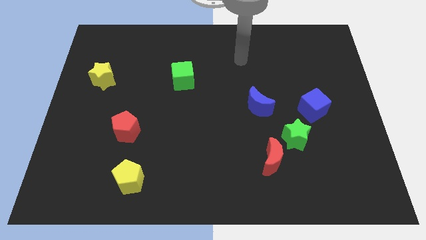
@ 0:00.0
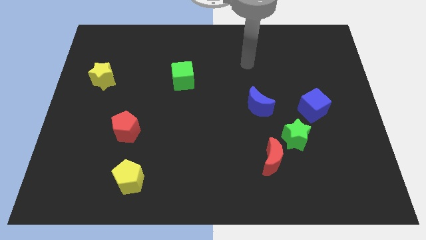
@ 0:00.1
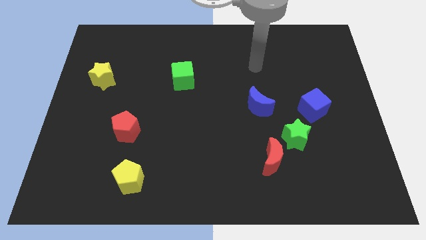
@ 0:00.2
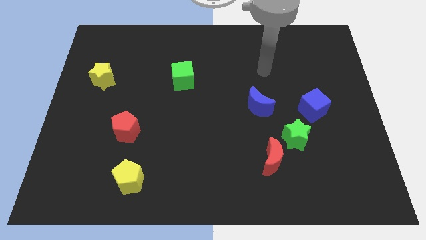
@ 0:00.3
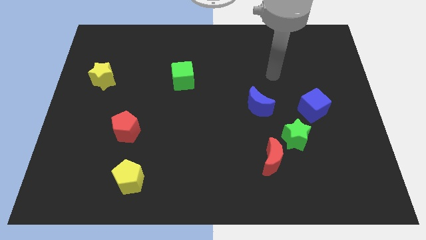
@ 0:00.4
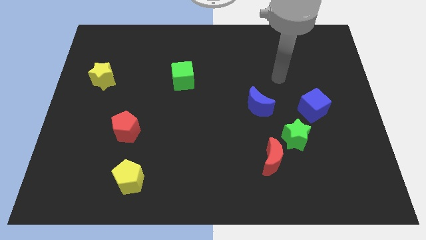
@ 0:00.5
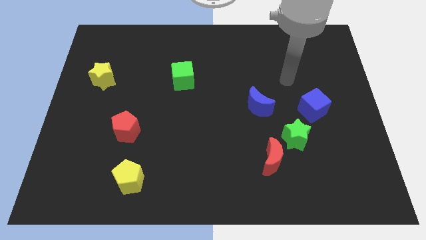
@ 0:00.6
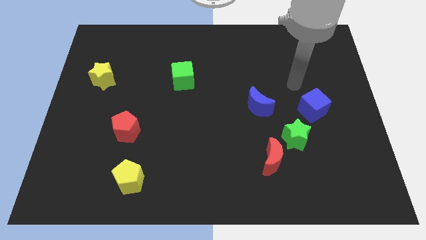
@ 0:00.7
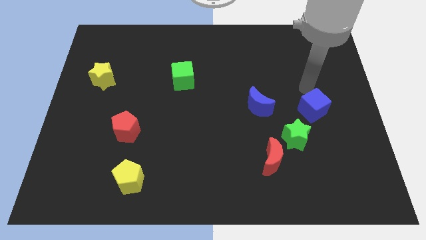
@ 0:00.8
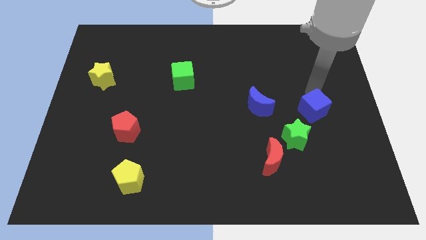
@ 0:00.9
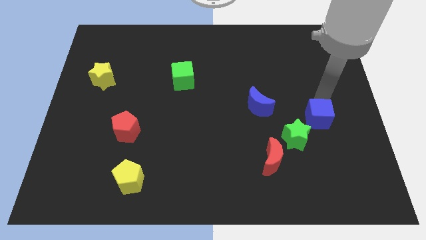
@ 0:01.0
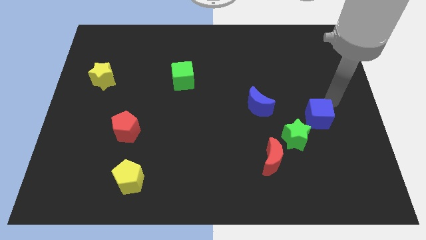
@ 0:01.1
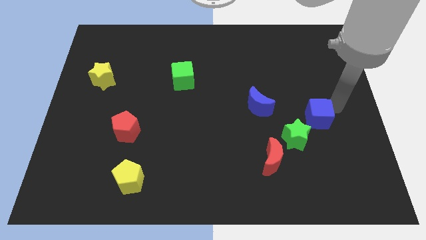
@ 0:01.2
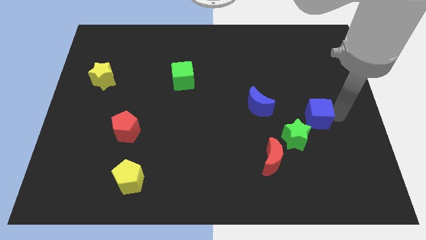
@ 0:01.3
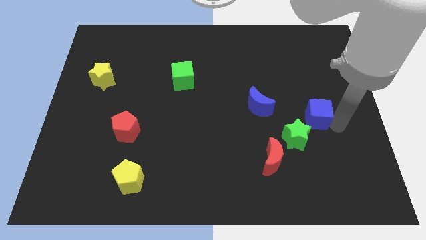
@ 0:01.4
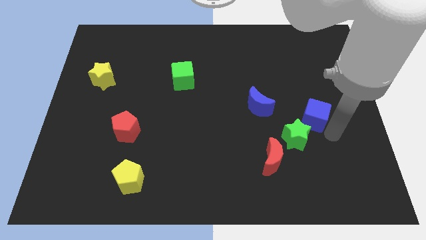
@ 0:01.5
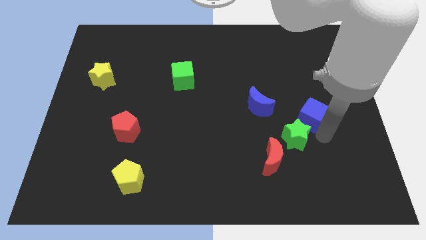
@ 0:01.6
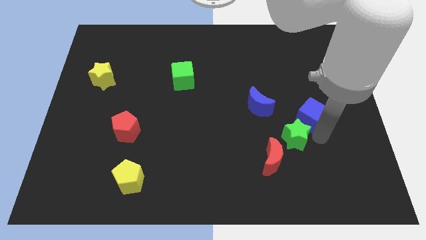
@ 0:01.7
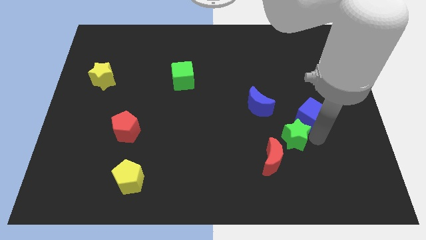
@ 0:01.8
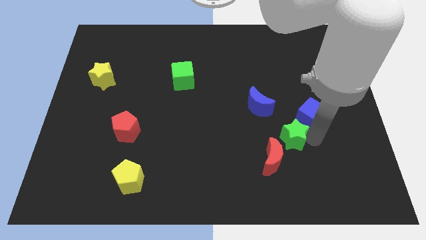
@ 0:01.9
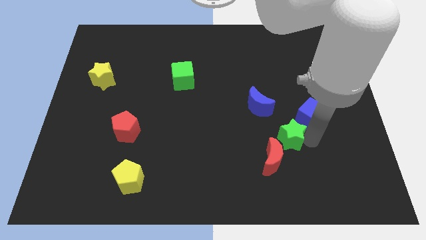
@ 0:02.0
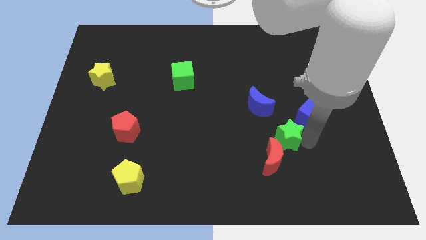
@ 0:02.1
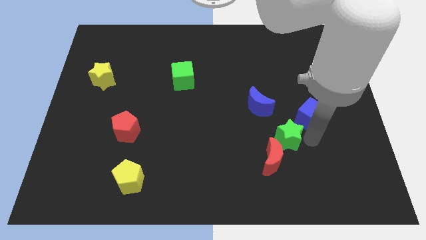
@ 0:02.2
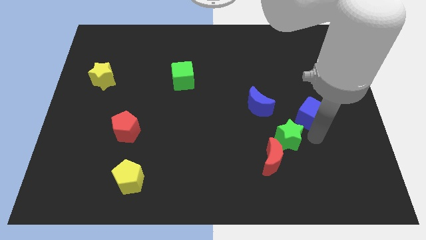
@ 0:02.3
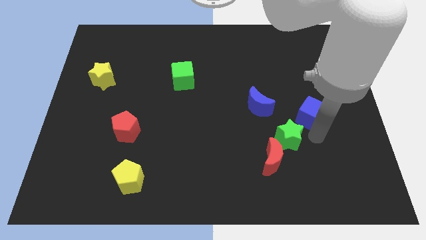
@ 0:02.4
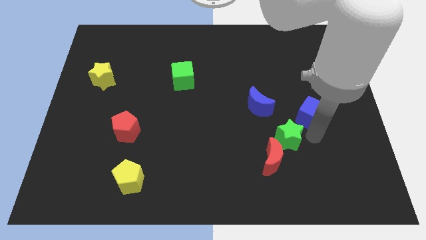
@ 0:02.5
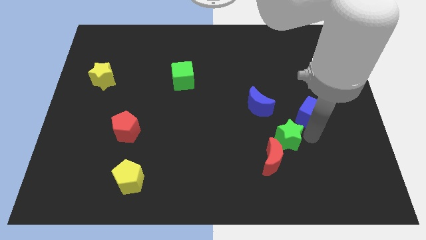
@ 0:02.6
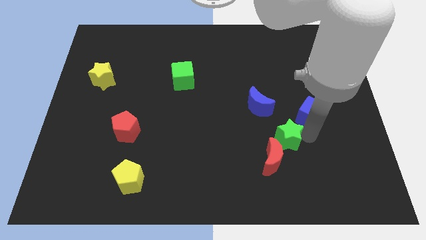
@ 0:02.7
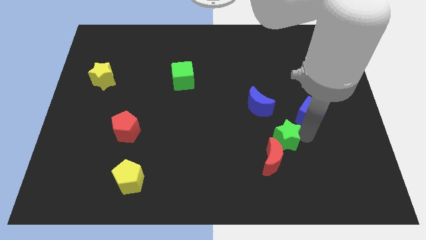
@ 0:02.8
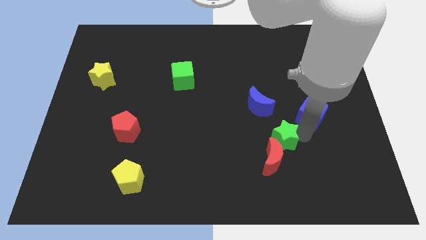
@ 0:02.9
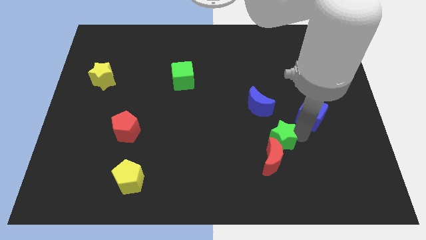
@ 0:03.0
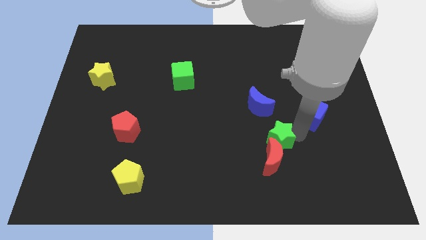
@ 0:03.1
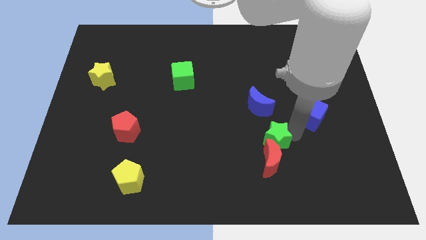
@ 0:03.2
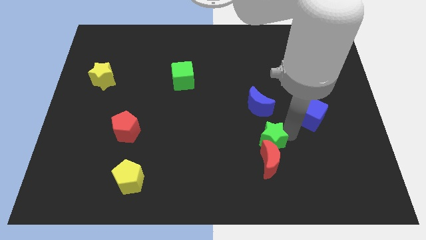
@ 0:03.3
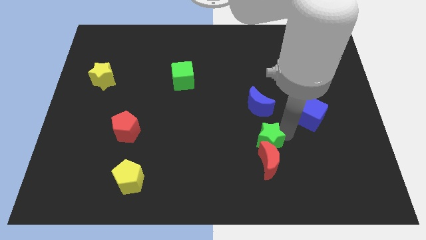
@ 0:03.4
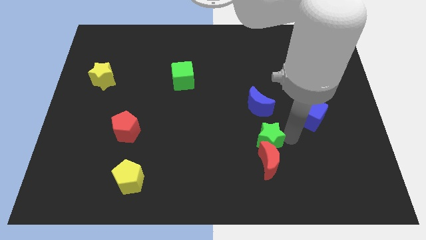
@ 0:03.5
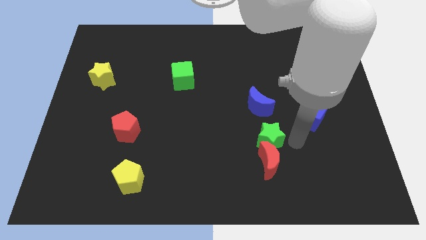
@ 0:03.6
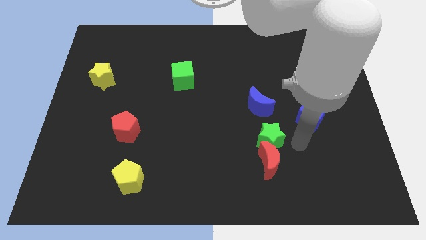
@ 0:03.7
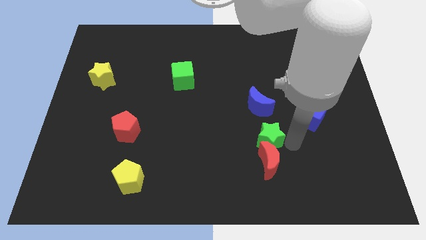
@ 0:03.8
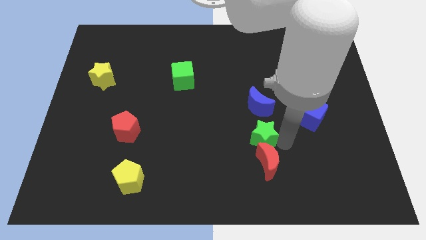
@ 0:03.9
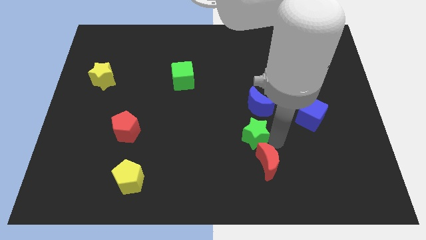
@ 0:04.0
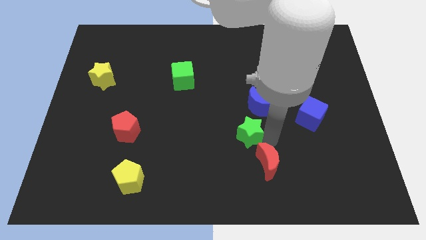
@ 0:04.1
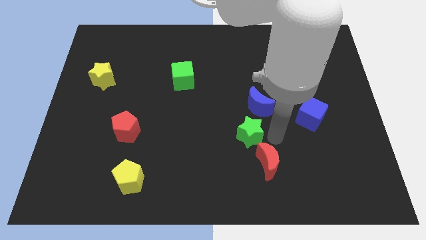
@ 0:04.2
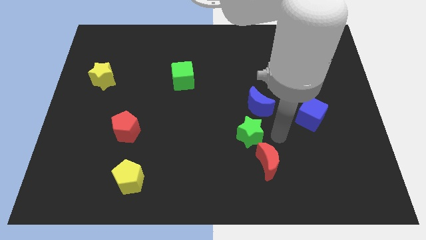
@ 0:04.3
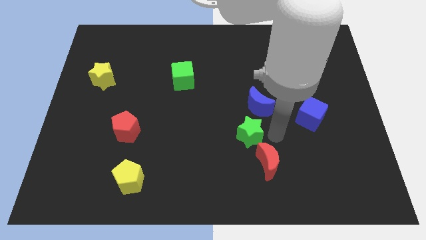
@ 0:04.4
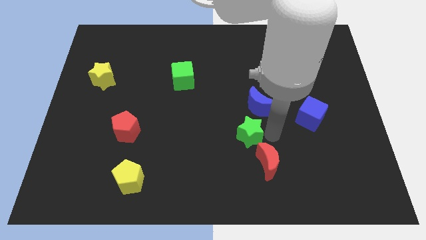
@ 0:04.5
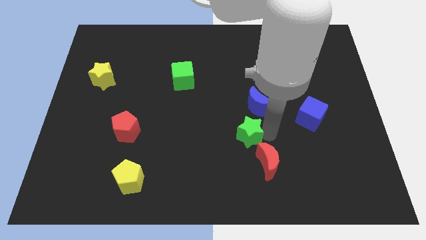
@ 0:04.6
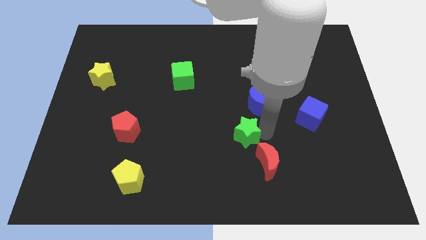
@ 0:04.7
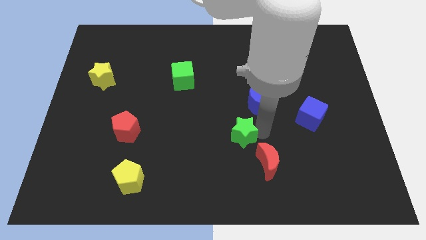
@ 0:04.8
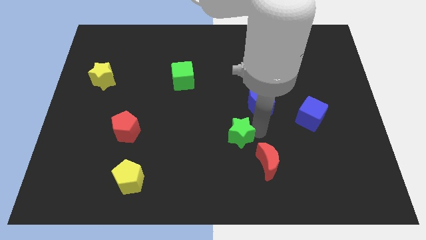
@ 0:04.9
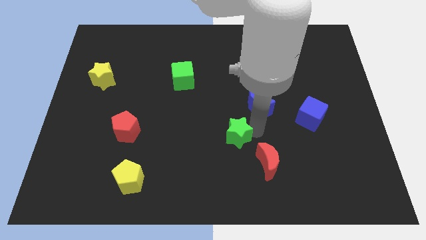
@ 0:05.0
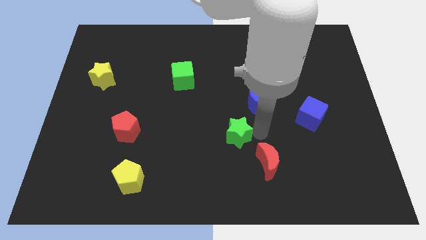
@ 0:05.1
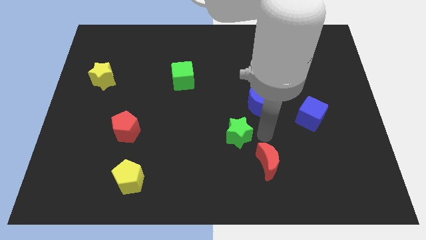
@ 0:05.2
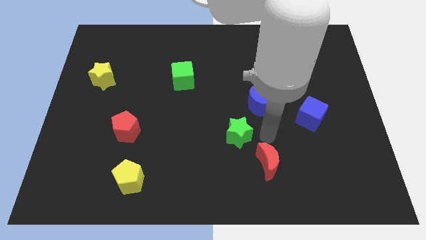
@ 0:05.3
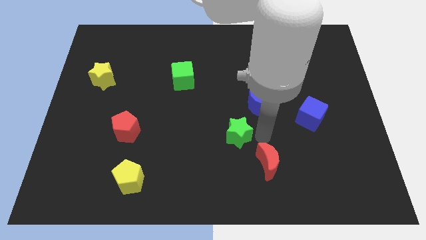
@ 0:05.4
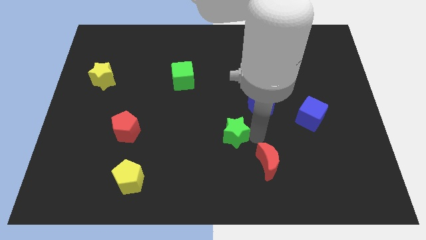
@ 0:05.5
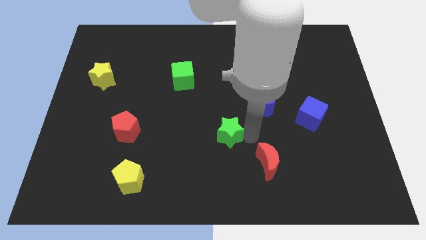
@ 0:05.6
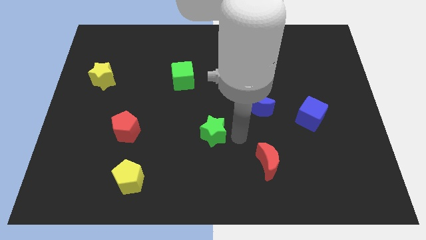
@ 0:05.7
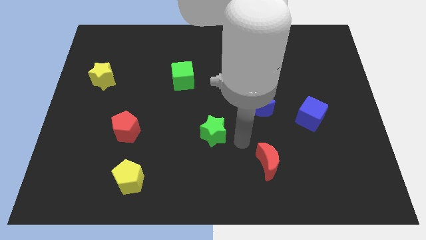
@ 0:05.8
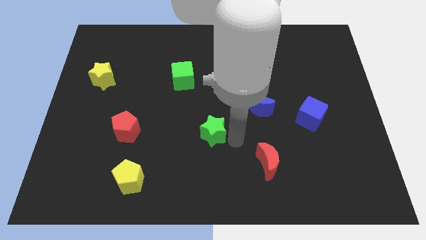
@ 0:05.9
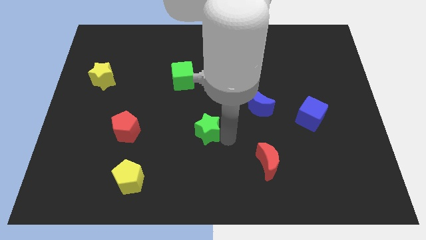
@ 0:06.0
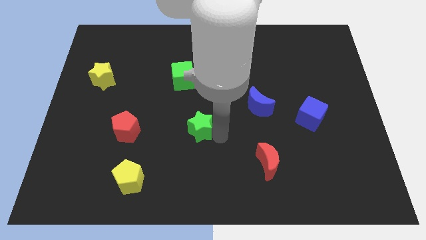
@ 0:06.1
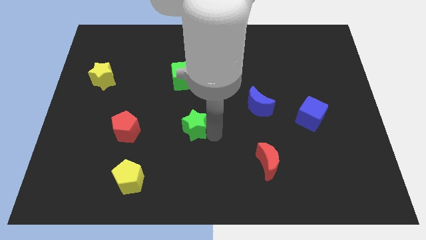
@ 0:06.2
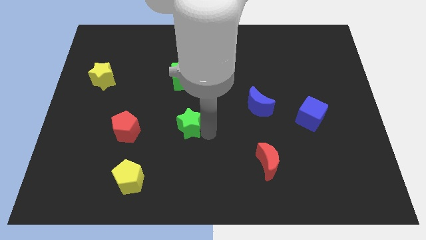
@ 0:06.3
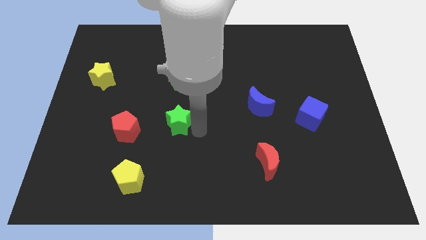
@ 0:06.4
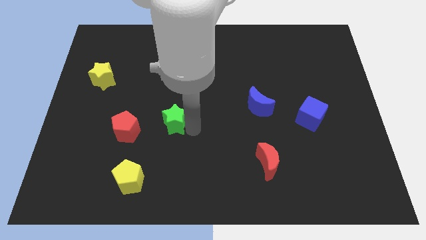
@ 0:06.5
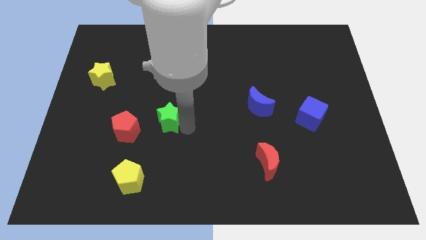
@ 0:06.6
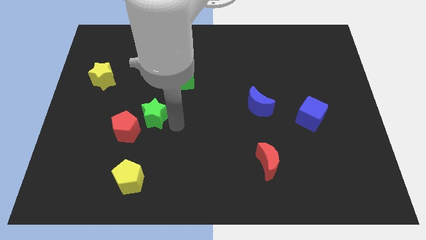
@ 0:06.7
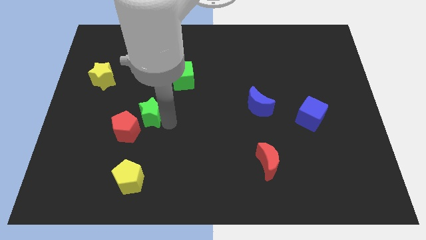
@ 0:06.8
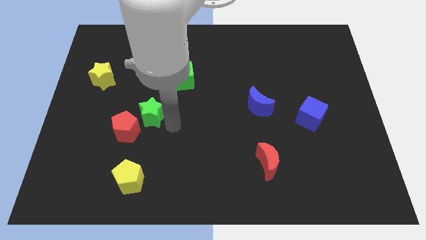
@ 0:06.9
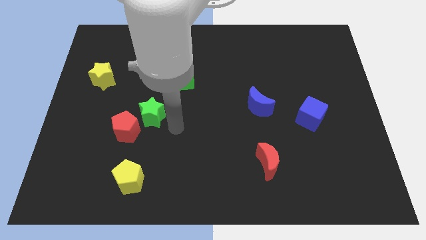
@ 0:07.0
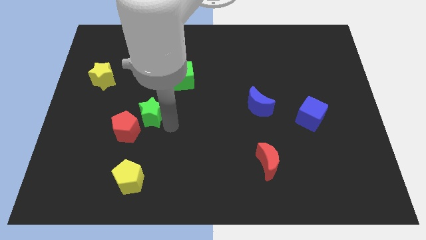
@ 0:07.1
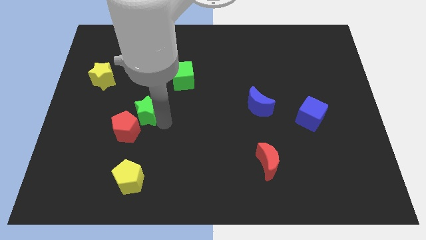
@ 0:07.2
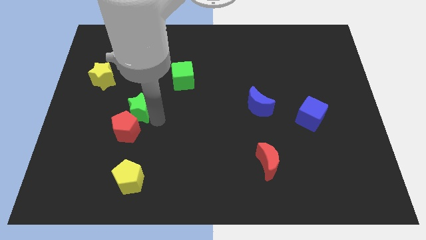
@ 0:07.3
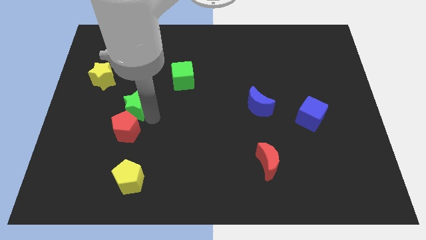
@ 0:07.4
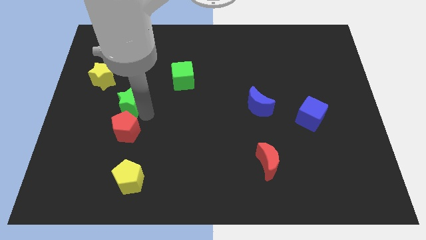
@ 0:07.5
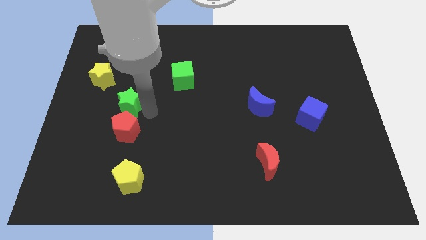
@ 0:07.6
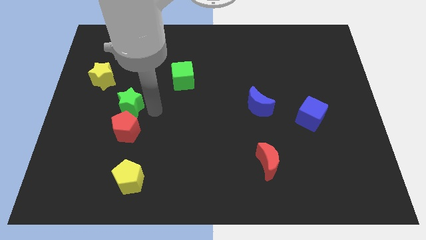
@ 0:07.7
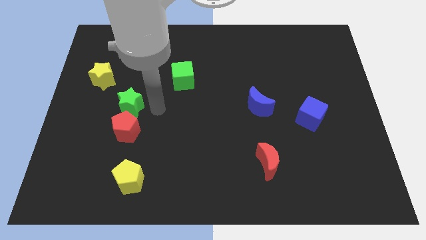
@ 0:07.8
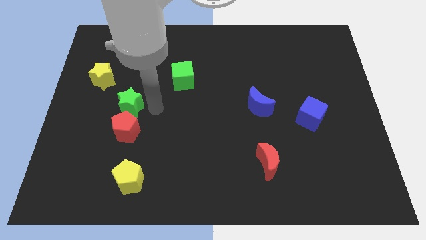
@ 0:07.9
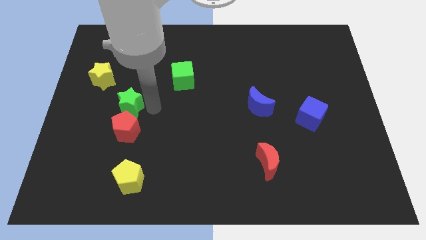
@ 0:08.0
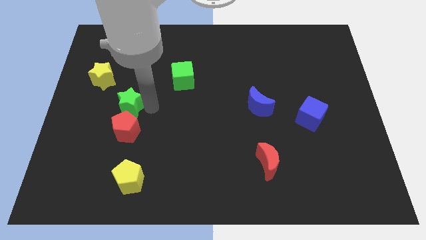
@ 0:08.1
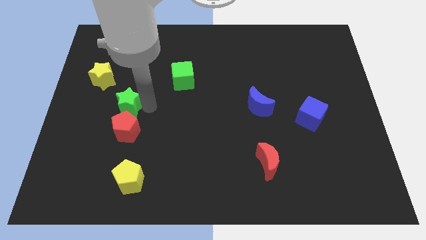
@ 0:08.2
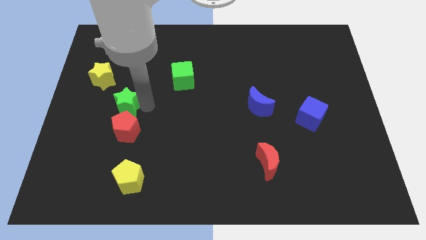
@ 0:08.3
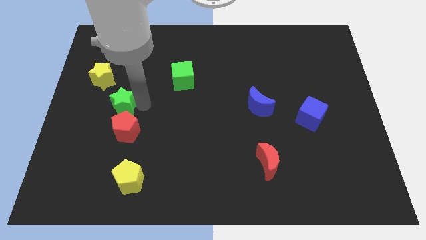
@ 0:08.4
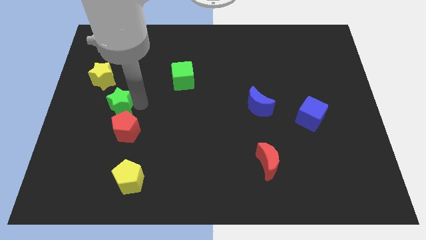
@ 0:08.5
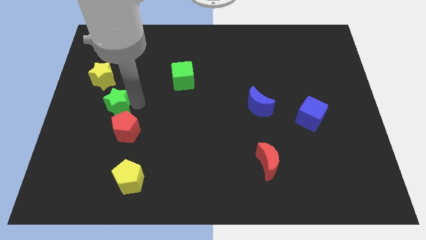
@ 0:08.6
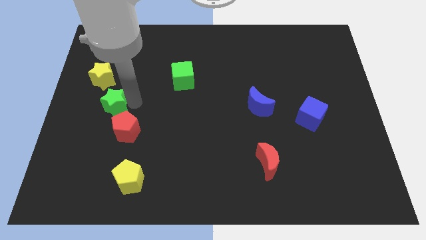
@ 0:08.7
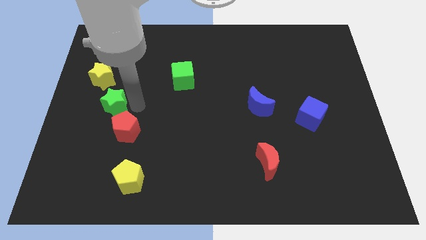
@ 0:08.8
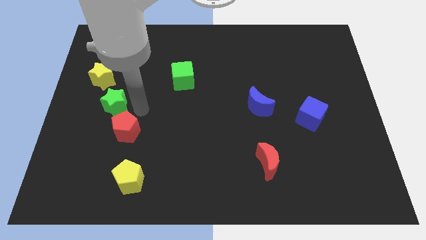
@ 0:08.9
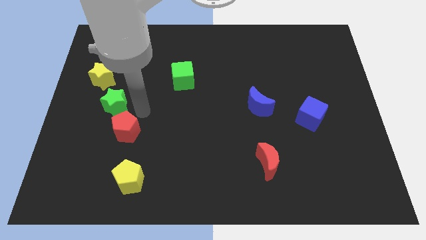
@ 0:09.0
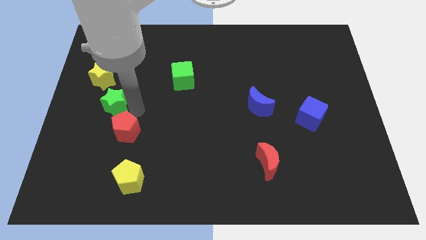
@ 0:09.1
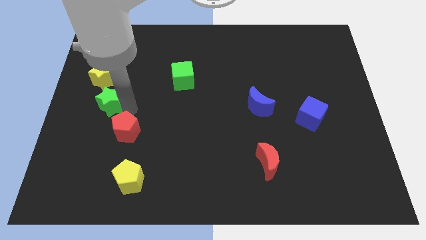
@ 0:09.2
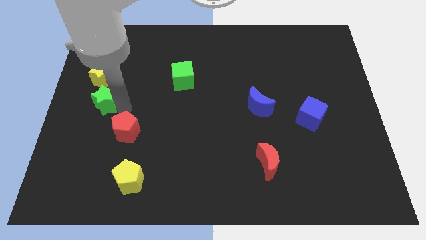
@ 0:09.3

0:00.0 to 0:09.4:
put the green star to the left side of the board
